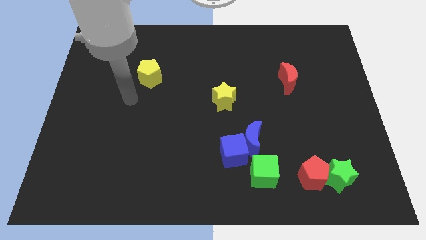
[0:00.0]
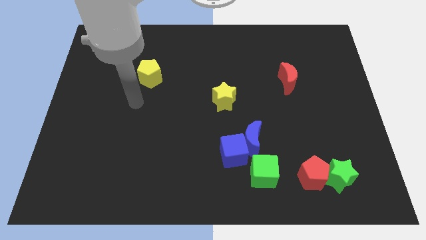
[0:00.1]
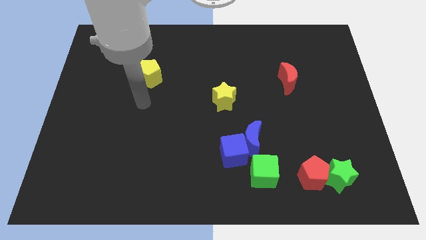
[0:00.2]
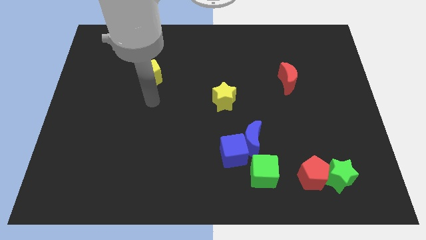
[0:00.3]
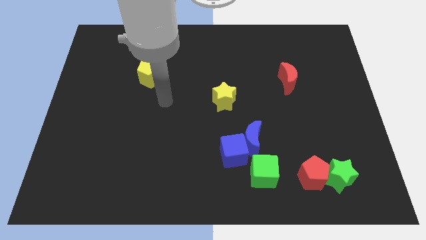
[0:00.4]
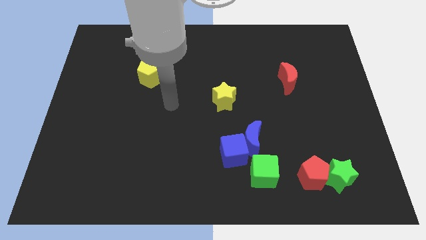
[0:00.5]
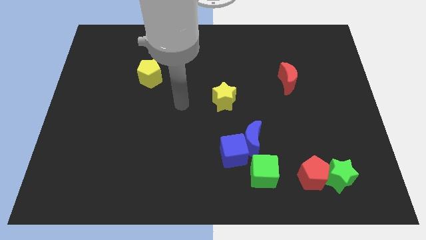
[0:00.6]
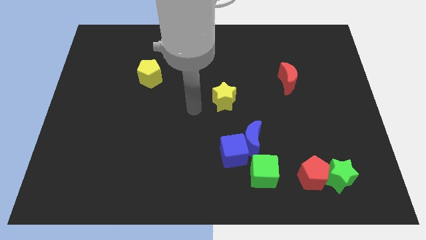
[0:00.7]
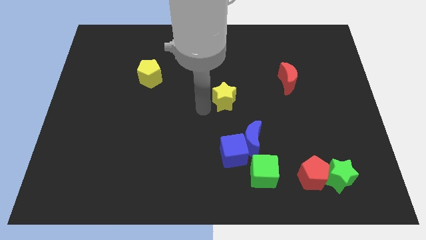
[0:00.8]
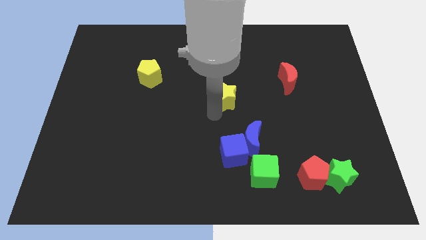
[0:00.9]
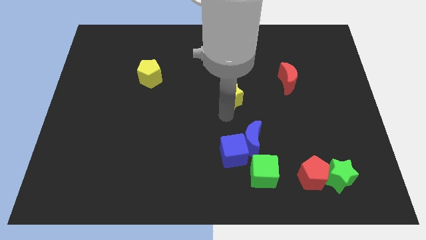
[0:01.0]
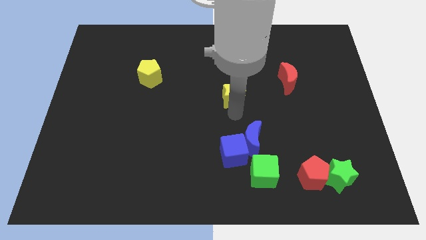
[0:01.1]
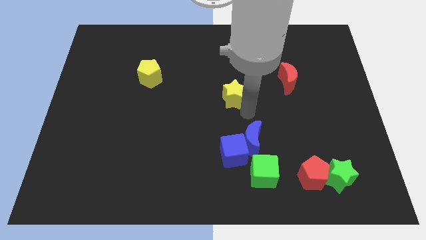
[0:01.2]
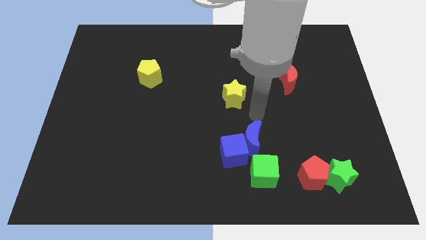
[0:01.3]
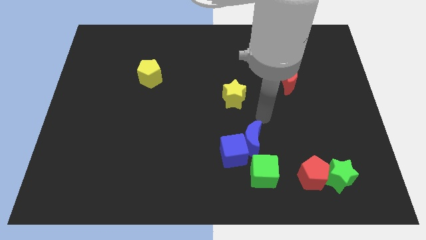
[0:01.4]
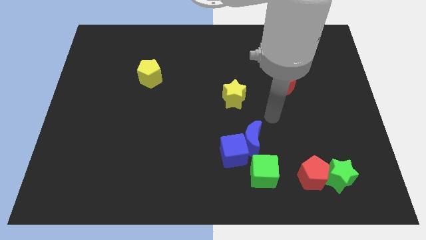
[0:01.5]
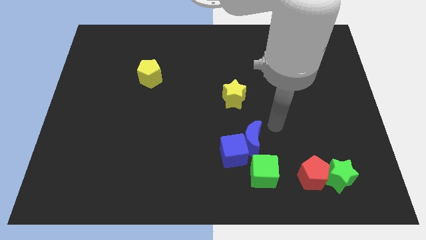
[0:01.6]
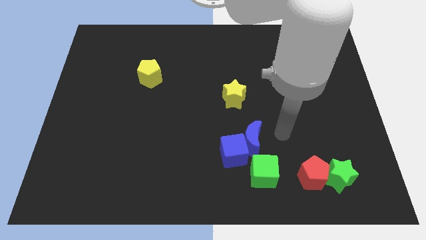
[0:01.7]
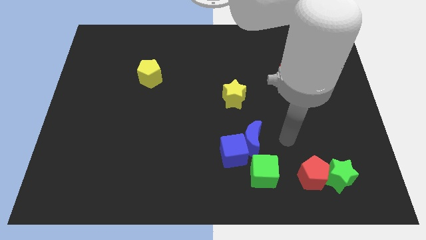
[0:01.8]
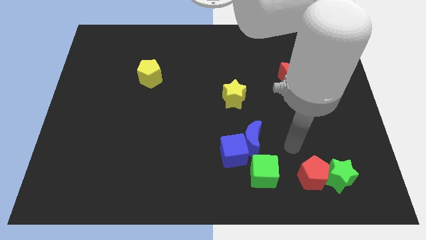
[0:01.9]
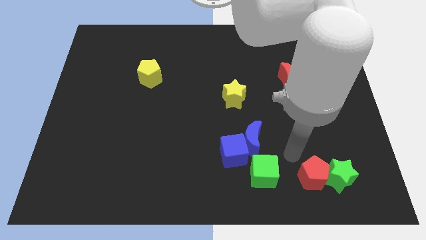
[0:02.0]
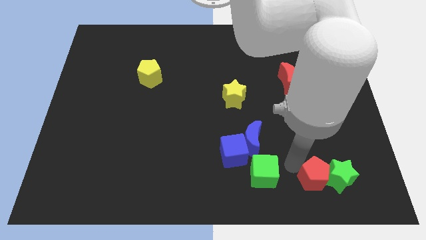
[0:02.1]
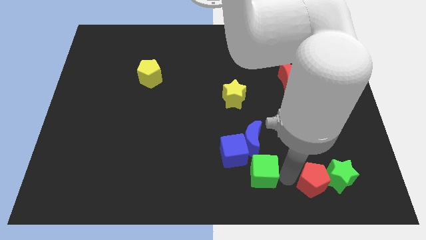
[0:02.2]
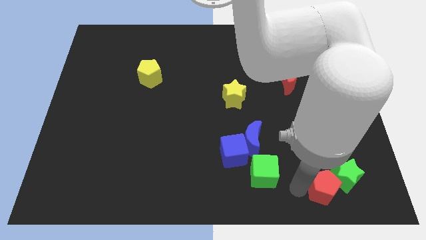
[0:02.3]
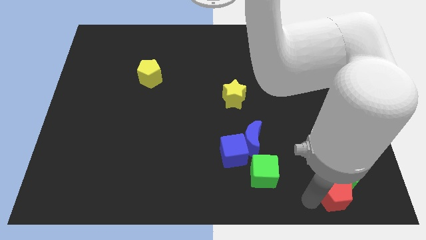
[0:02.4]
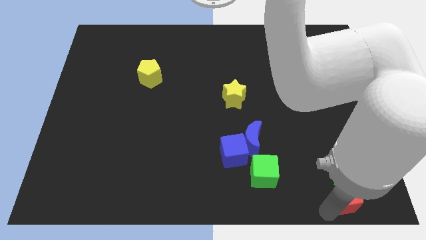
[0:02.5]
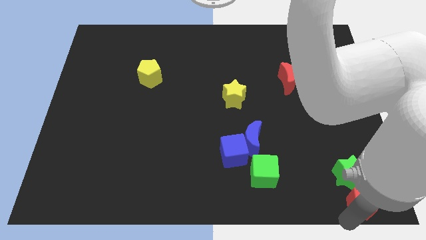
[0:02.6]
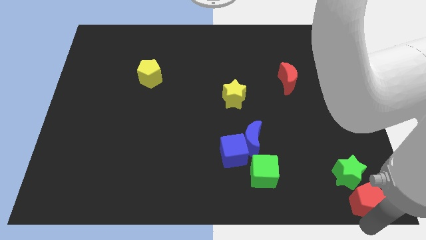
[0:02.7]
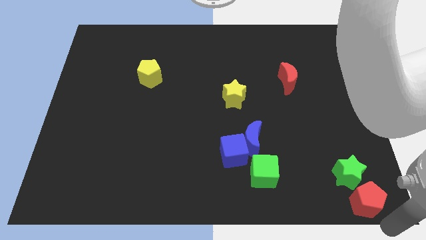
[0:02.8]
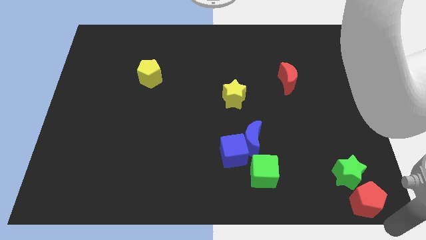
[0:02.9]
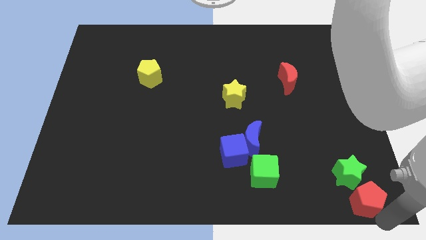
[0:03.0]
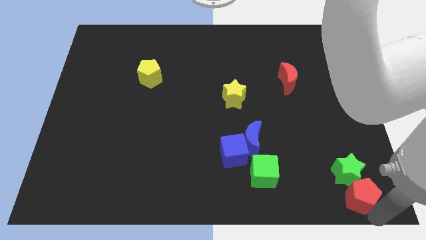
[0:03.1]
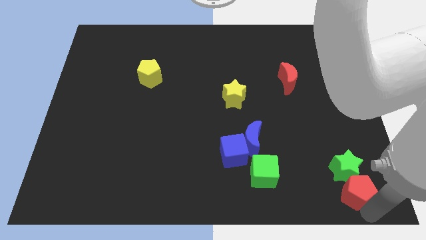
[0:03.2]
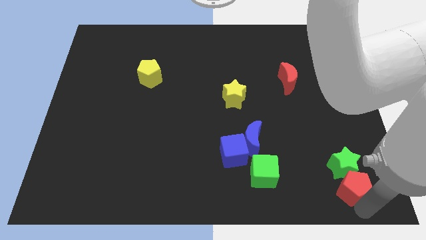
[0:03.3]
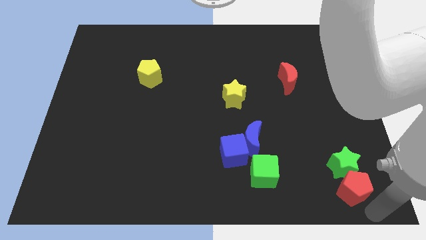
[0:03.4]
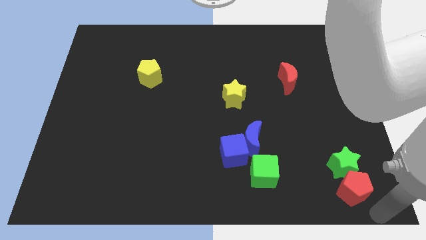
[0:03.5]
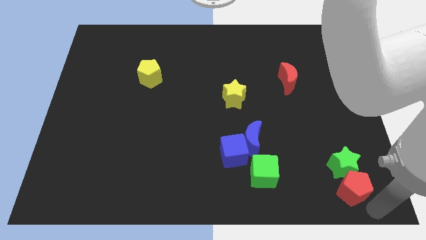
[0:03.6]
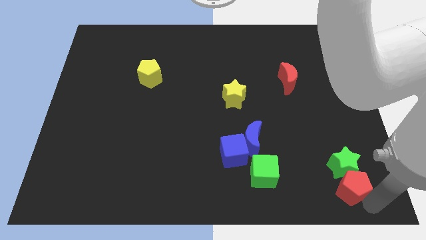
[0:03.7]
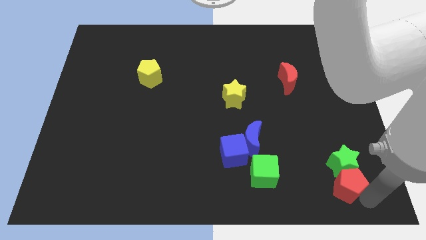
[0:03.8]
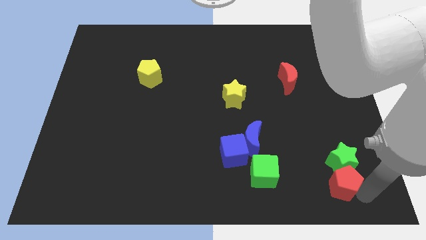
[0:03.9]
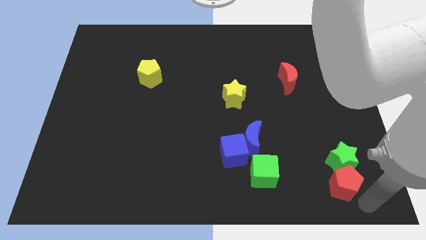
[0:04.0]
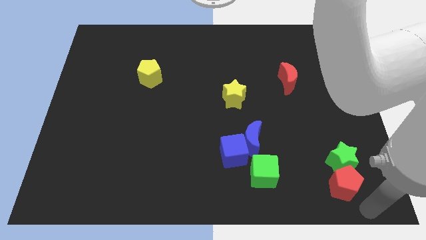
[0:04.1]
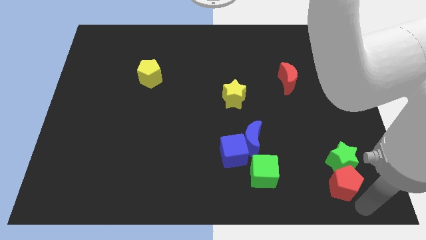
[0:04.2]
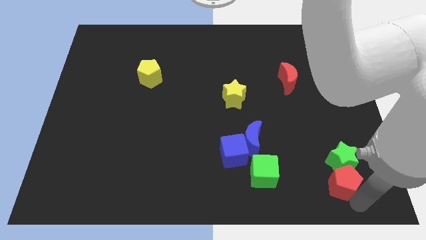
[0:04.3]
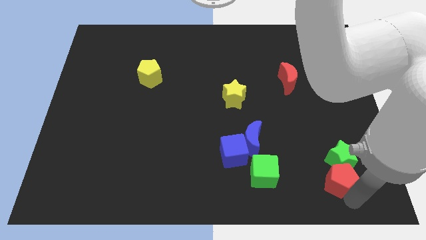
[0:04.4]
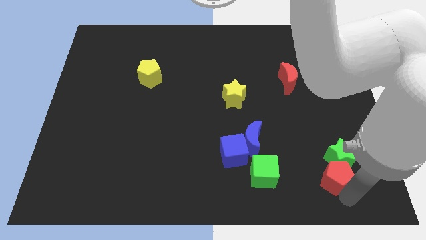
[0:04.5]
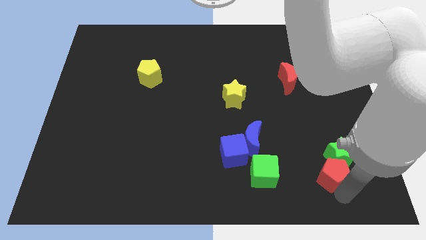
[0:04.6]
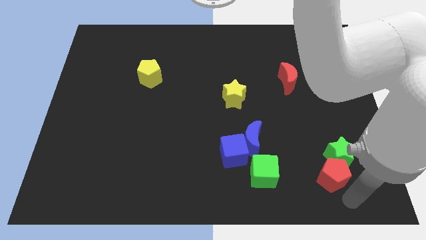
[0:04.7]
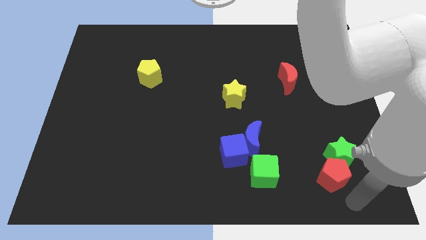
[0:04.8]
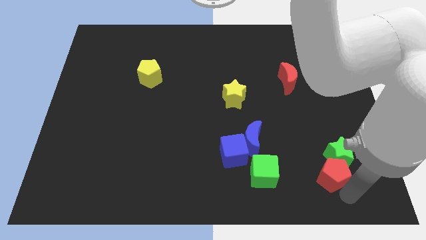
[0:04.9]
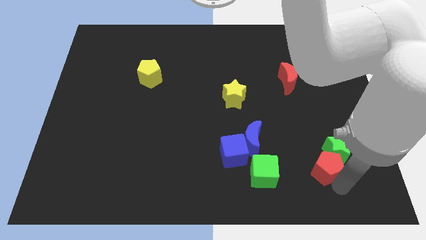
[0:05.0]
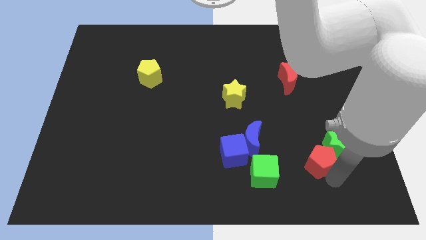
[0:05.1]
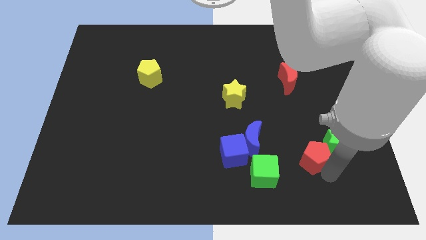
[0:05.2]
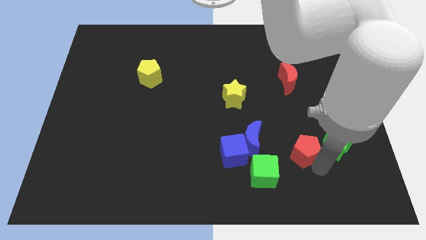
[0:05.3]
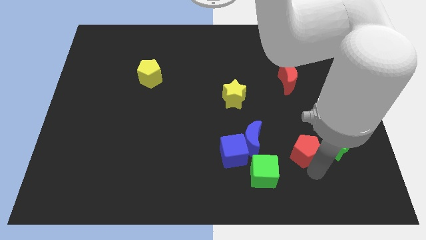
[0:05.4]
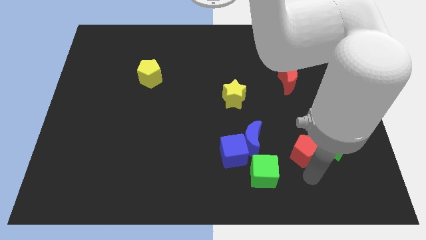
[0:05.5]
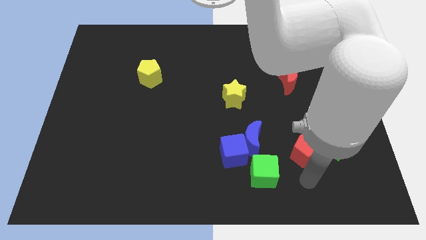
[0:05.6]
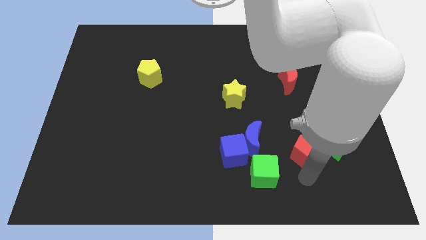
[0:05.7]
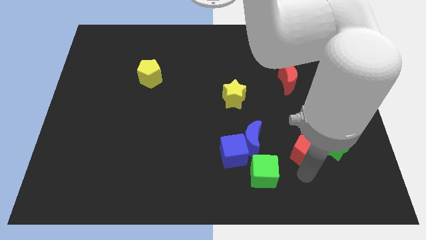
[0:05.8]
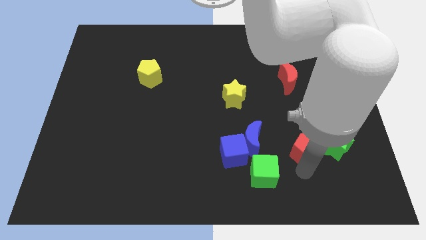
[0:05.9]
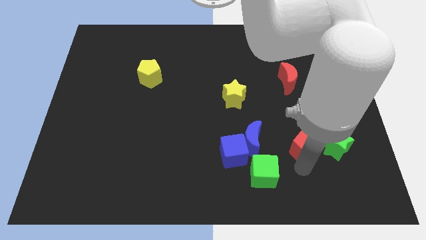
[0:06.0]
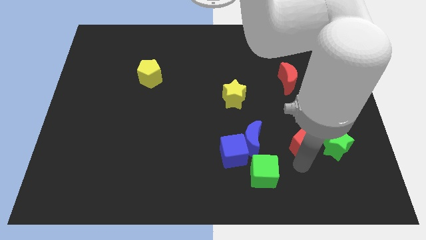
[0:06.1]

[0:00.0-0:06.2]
move the red pentagon upwards a little bit

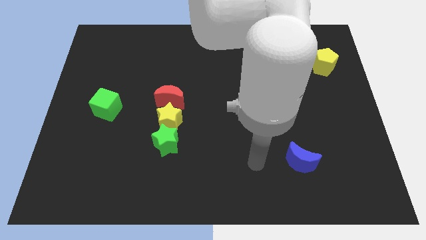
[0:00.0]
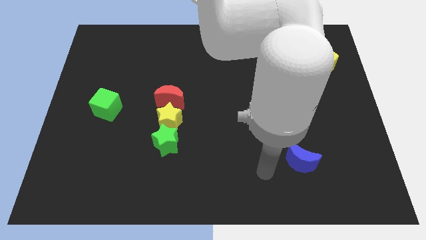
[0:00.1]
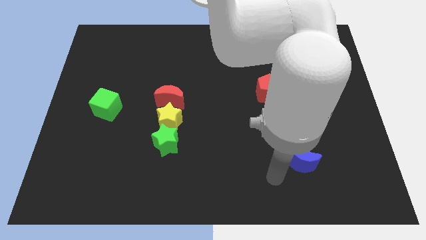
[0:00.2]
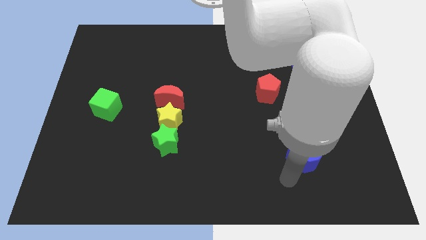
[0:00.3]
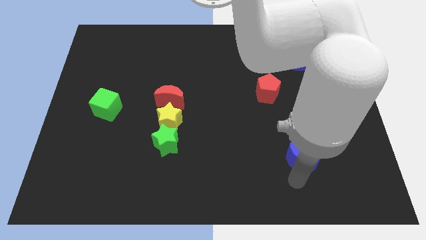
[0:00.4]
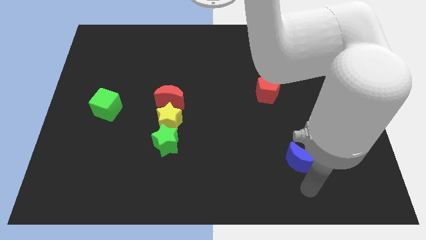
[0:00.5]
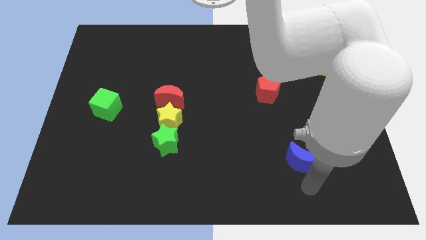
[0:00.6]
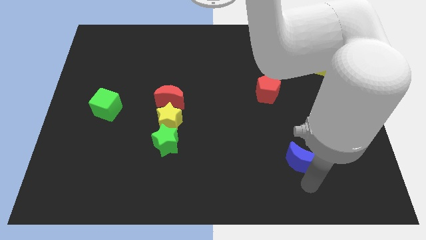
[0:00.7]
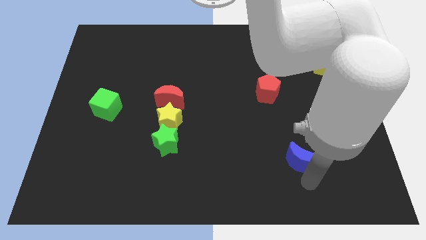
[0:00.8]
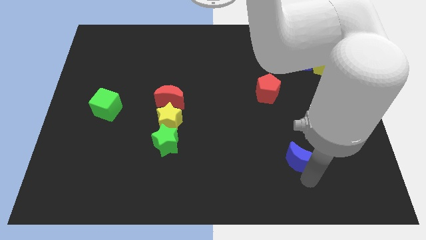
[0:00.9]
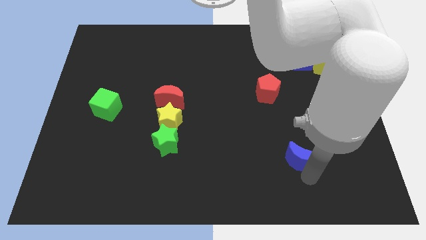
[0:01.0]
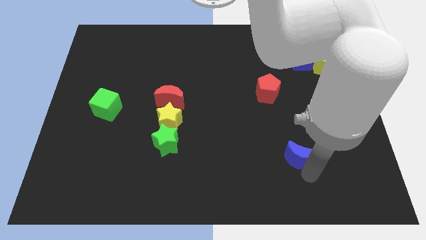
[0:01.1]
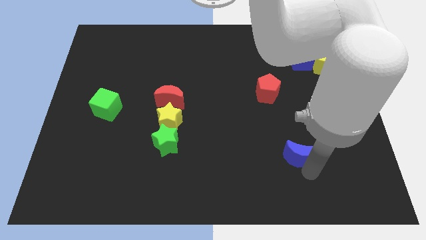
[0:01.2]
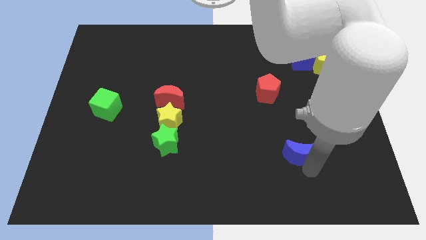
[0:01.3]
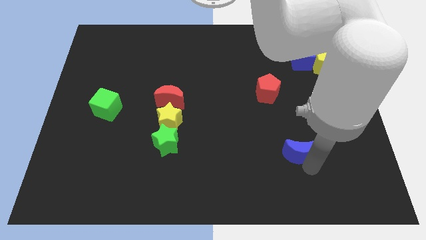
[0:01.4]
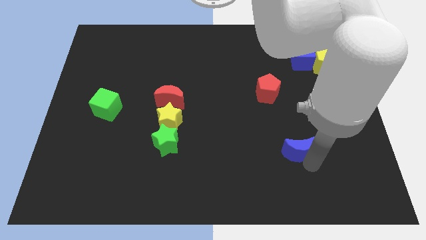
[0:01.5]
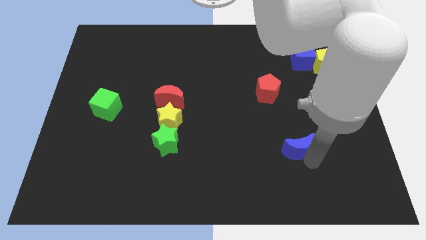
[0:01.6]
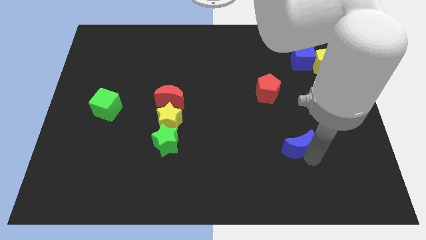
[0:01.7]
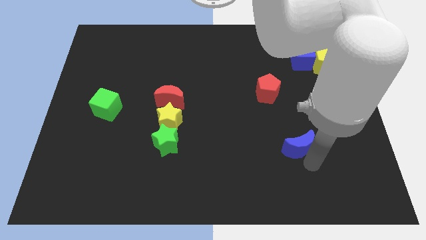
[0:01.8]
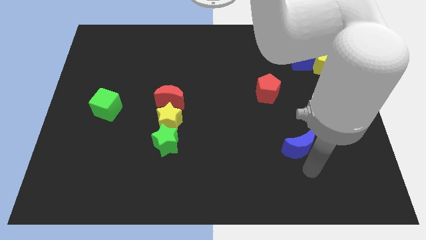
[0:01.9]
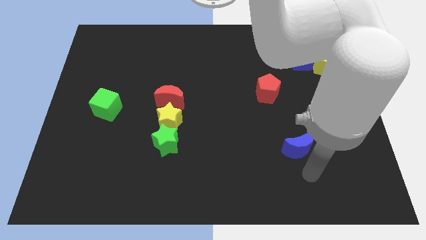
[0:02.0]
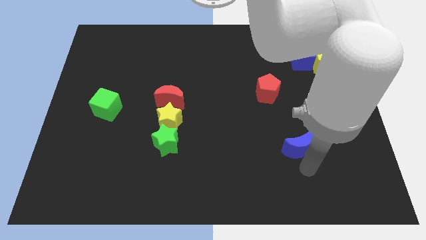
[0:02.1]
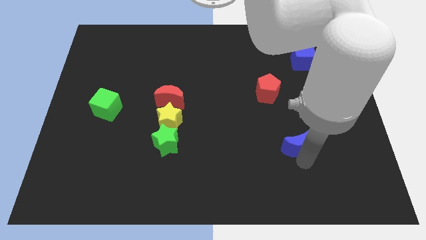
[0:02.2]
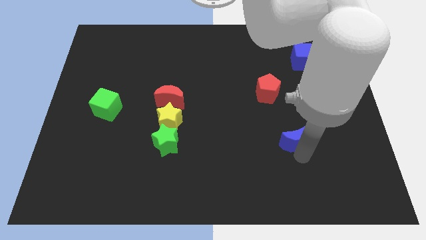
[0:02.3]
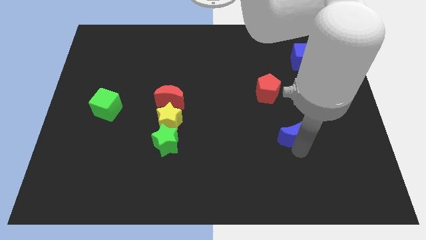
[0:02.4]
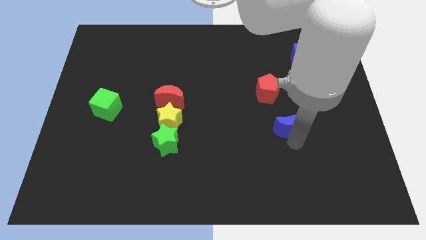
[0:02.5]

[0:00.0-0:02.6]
slide the blue moon upwards a little bit
